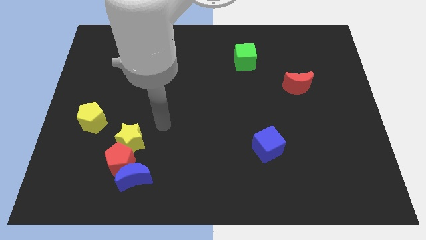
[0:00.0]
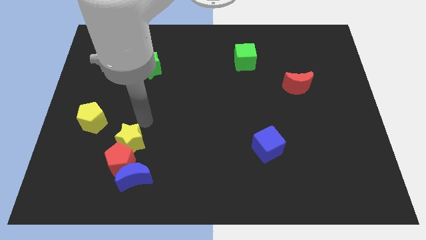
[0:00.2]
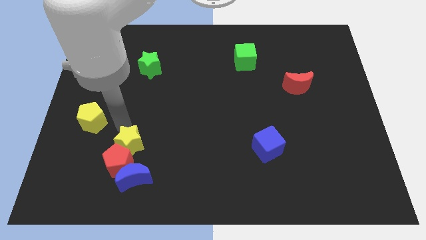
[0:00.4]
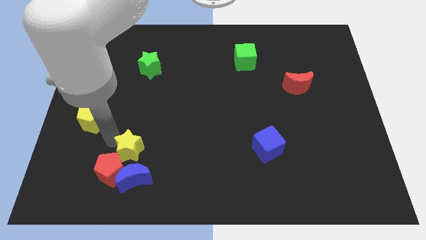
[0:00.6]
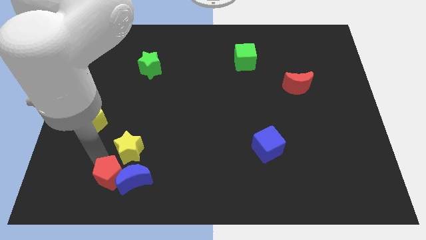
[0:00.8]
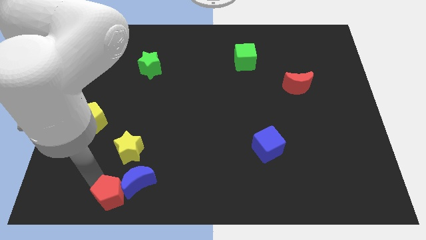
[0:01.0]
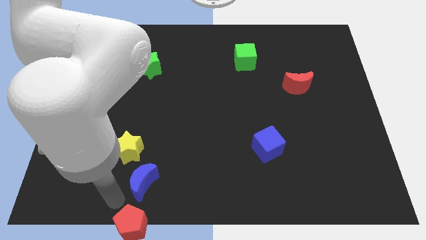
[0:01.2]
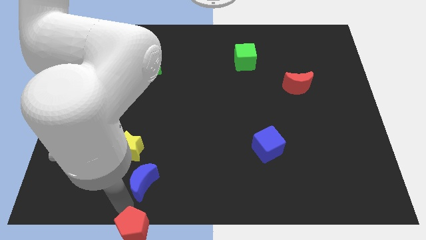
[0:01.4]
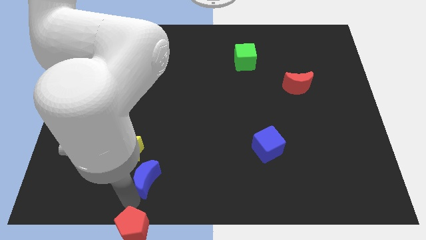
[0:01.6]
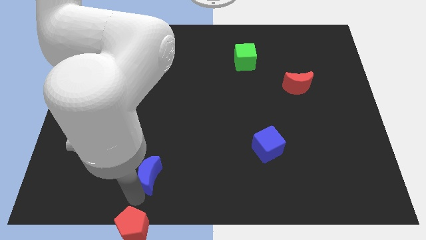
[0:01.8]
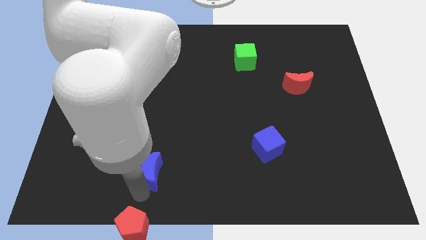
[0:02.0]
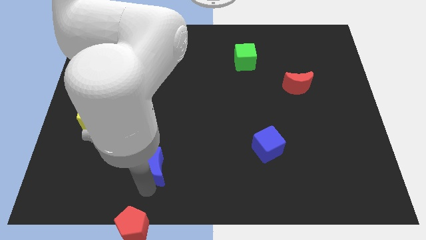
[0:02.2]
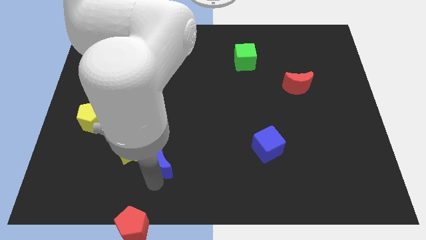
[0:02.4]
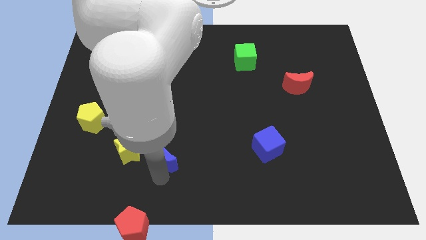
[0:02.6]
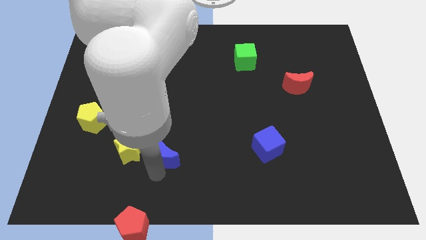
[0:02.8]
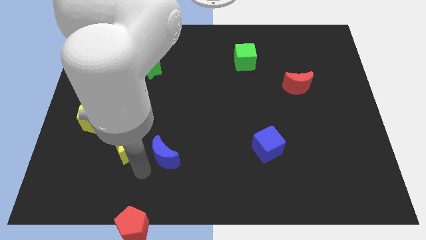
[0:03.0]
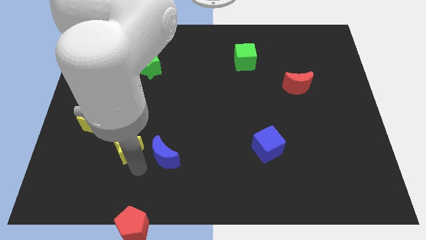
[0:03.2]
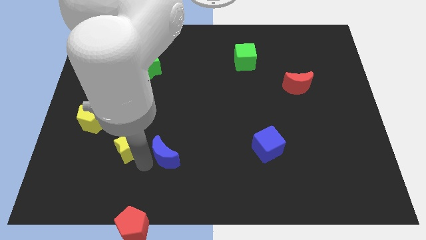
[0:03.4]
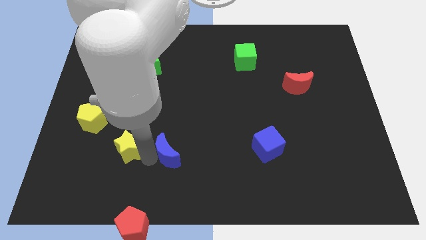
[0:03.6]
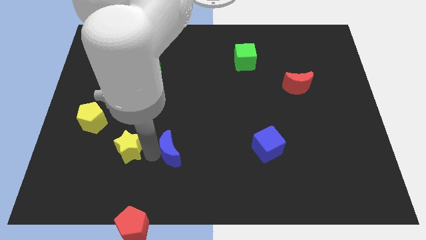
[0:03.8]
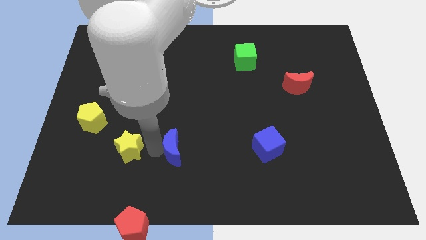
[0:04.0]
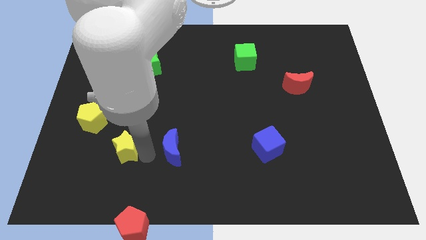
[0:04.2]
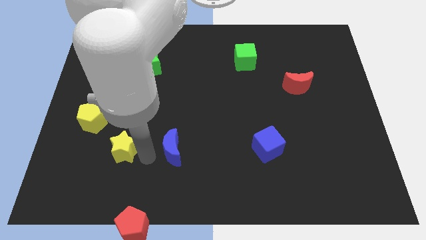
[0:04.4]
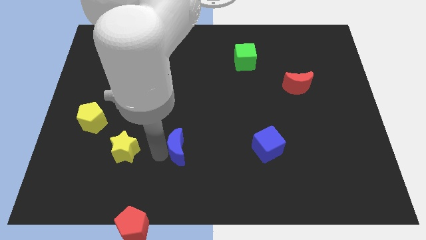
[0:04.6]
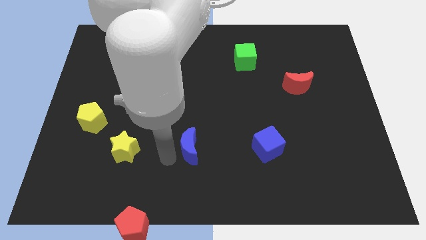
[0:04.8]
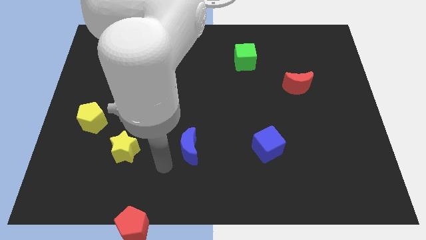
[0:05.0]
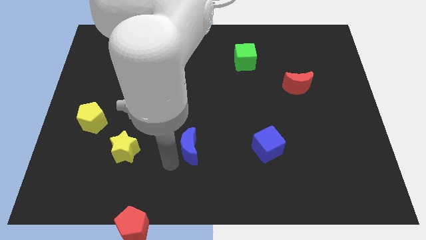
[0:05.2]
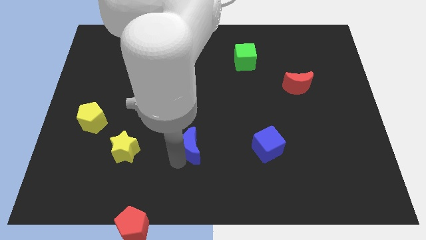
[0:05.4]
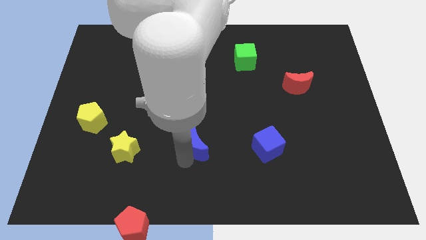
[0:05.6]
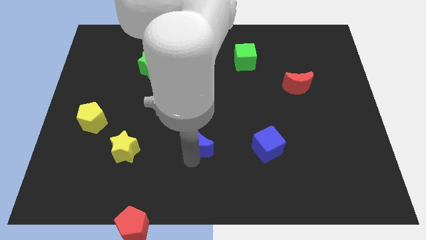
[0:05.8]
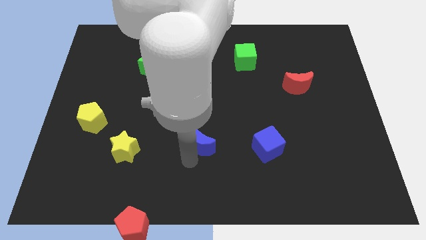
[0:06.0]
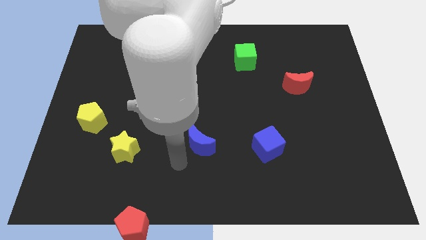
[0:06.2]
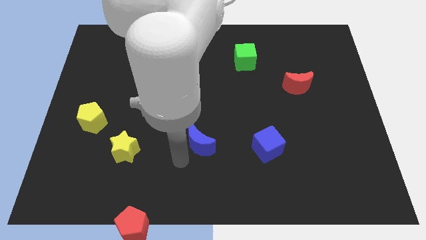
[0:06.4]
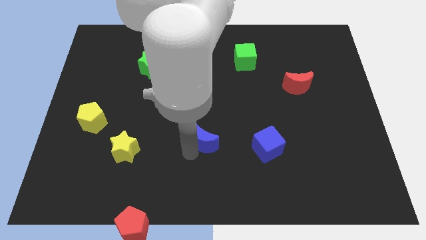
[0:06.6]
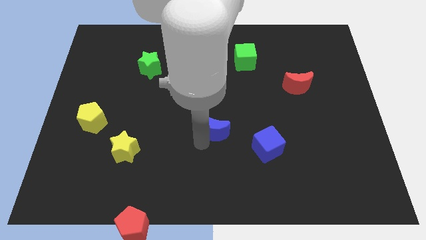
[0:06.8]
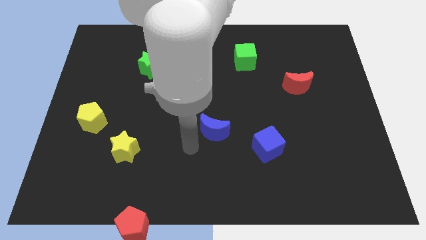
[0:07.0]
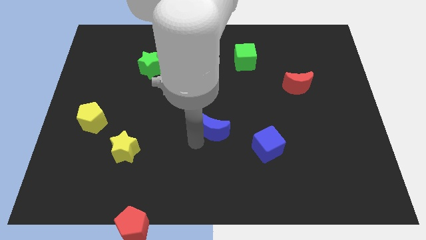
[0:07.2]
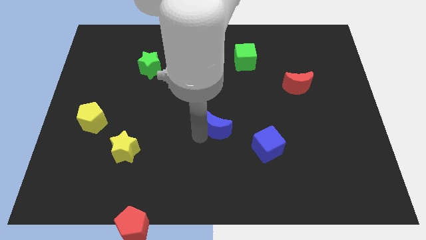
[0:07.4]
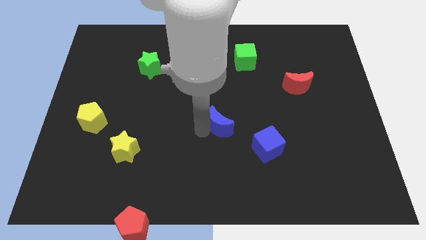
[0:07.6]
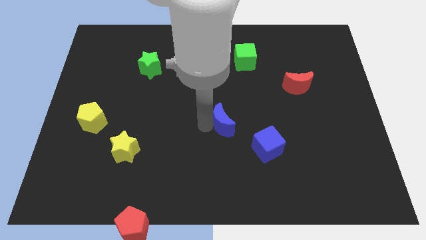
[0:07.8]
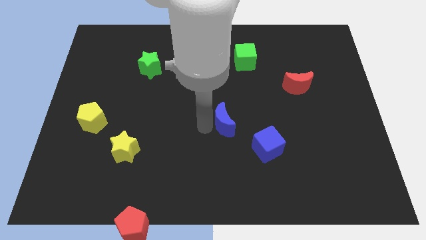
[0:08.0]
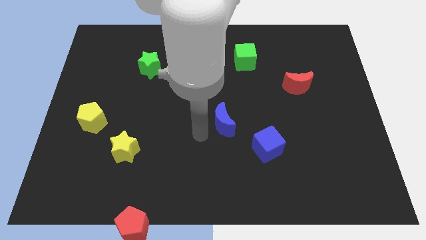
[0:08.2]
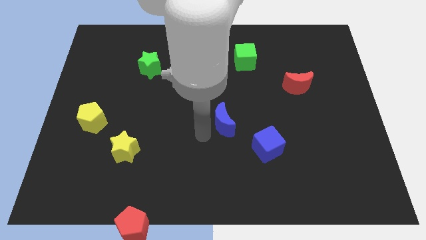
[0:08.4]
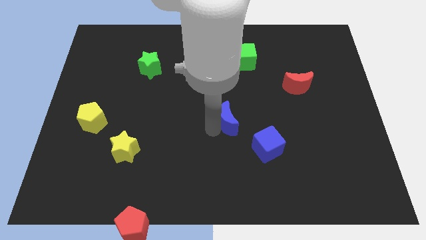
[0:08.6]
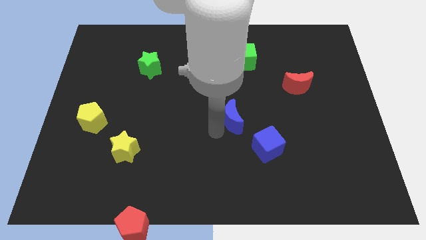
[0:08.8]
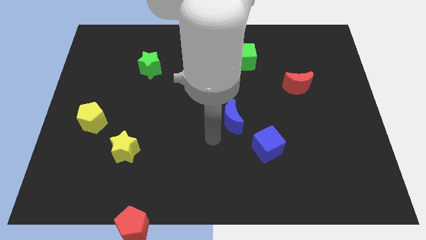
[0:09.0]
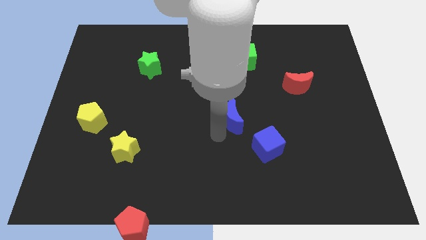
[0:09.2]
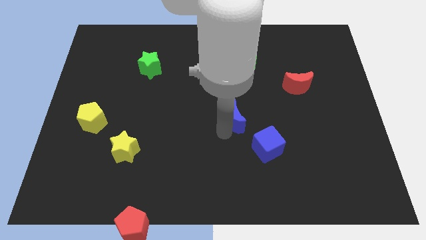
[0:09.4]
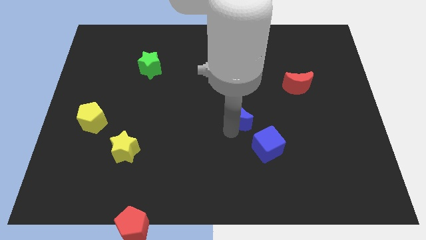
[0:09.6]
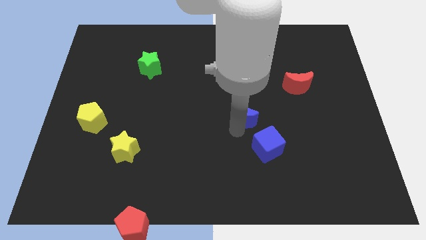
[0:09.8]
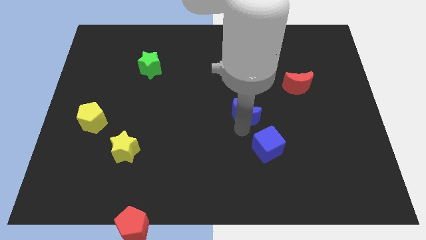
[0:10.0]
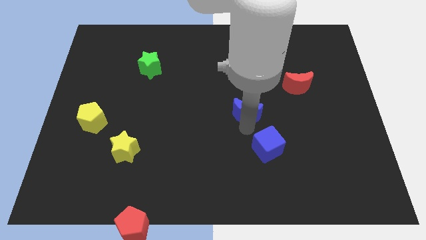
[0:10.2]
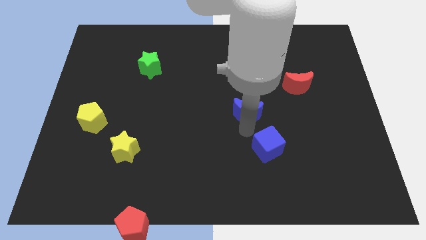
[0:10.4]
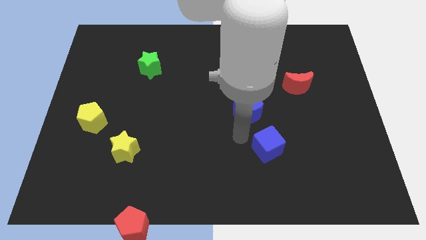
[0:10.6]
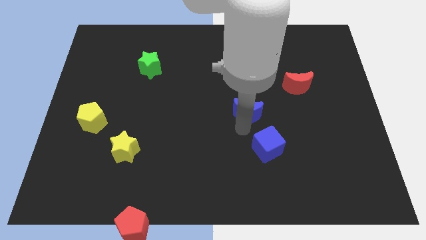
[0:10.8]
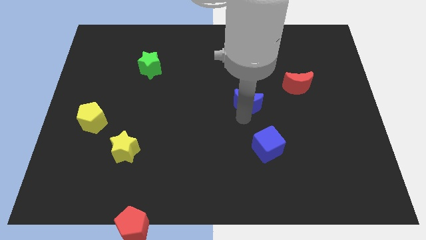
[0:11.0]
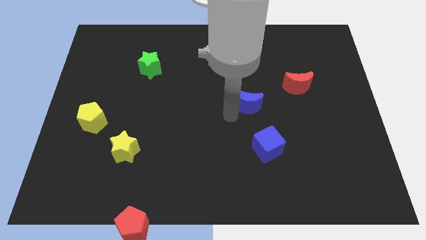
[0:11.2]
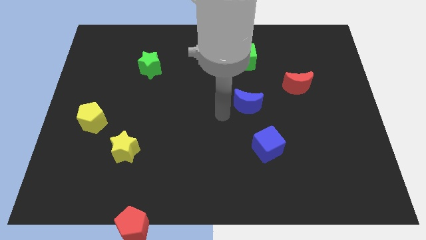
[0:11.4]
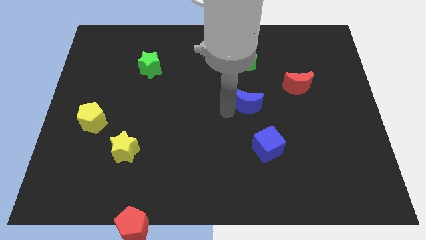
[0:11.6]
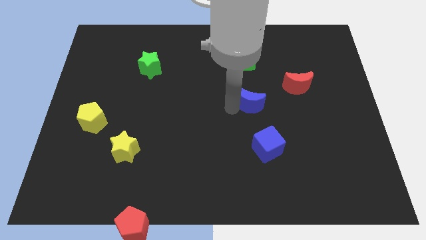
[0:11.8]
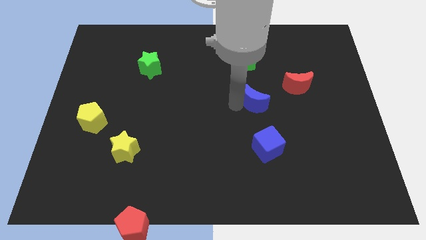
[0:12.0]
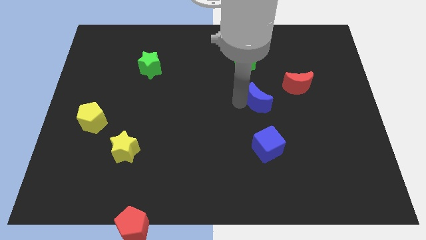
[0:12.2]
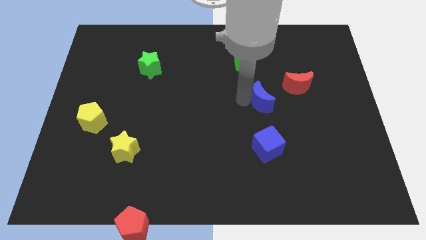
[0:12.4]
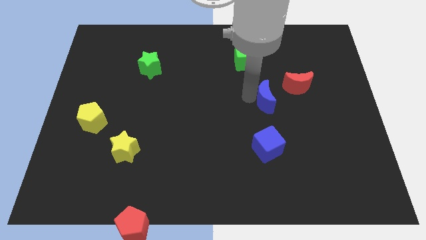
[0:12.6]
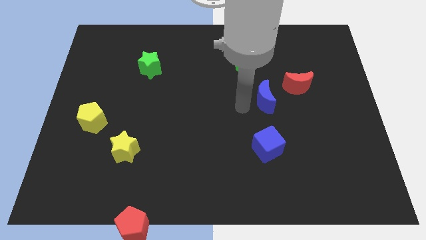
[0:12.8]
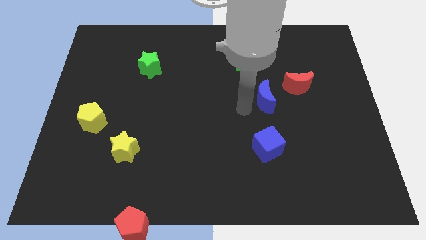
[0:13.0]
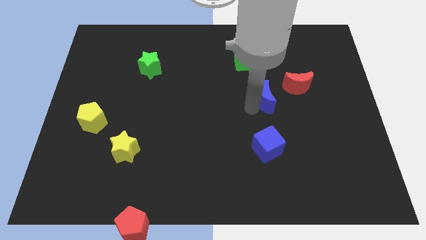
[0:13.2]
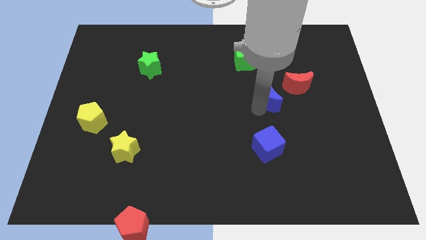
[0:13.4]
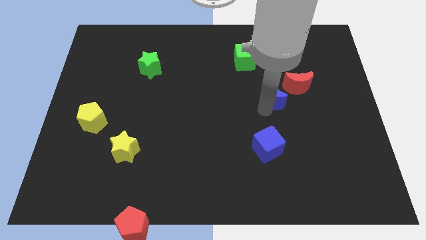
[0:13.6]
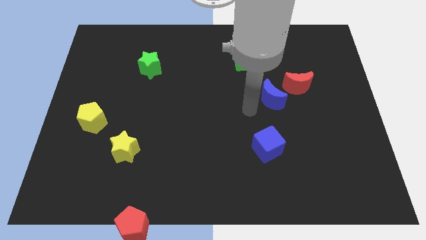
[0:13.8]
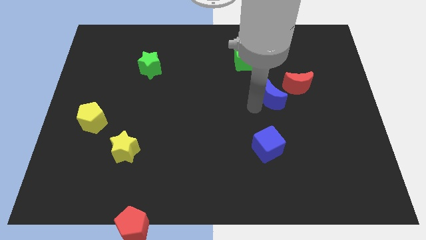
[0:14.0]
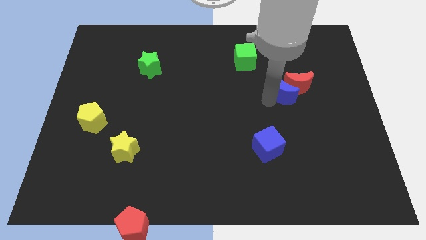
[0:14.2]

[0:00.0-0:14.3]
push the blue moon to the red moon

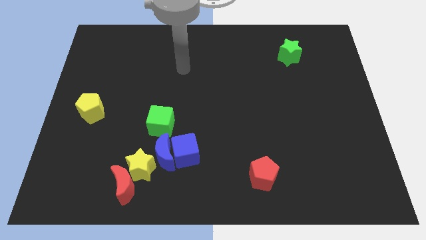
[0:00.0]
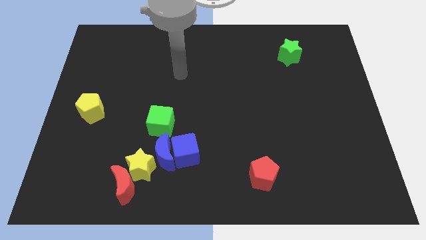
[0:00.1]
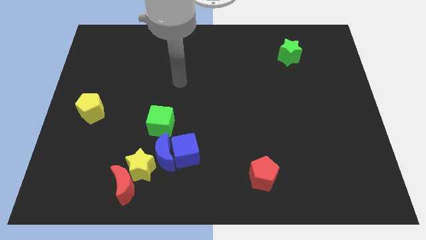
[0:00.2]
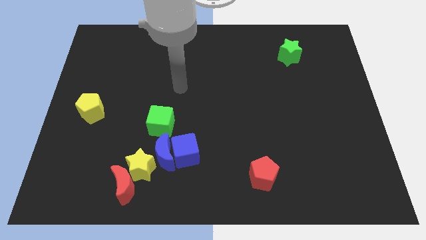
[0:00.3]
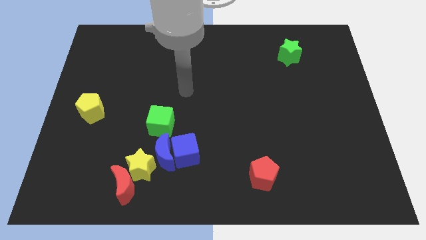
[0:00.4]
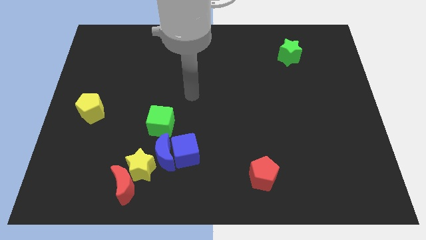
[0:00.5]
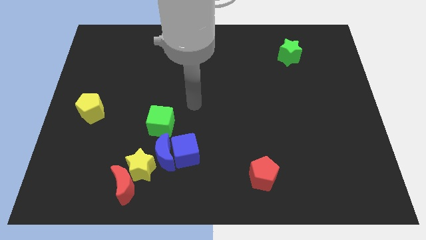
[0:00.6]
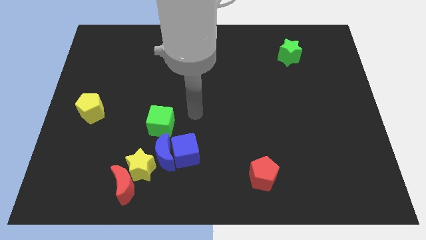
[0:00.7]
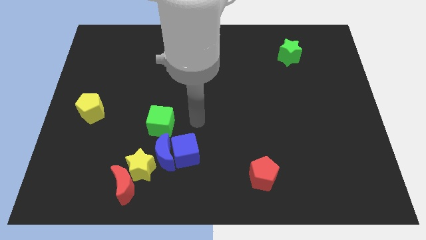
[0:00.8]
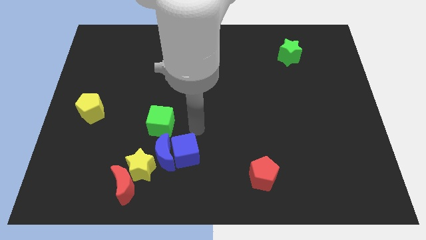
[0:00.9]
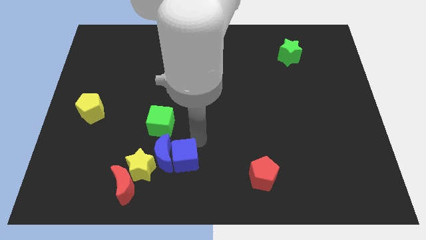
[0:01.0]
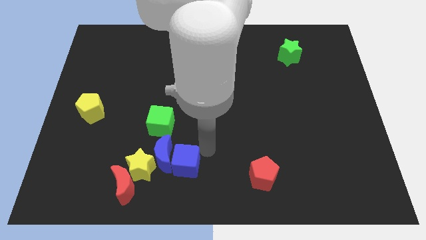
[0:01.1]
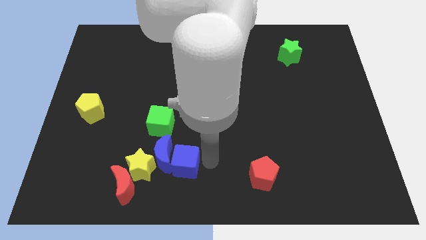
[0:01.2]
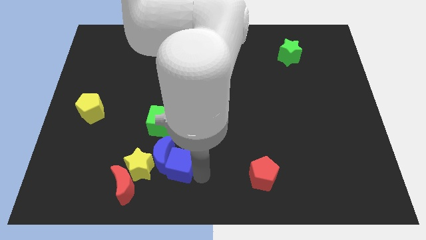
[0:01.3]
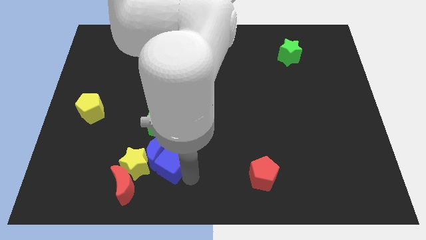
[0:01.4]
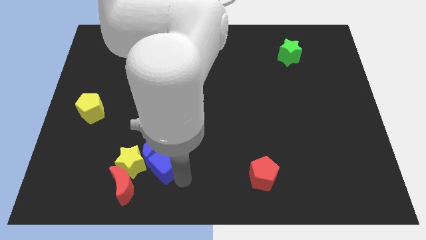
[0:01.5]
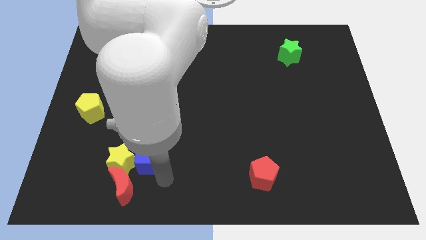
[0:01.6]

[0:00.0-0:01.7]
move the blue moon to the green cube
